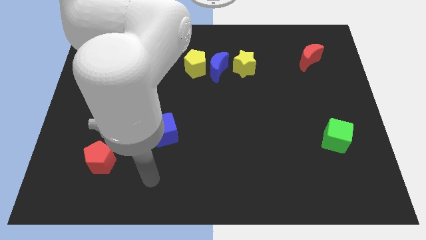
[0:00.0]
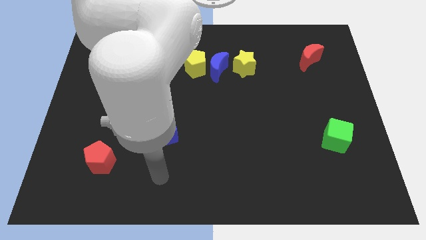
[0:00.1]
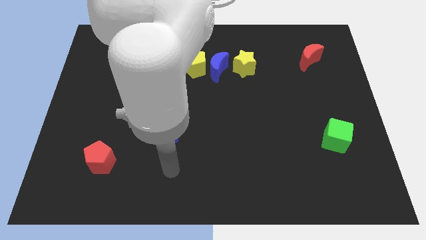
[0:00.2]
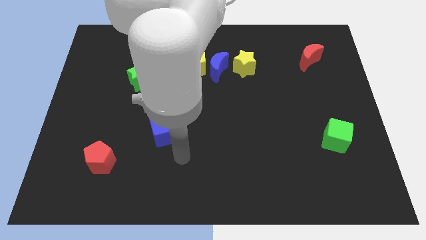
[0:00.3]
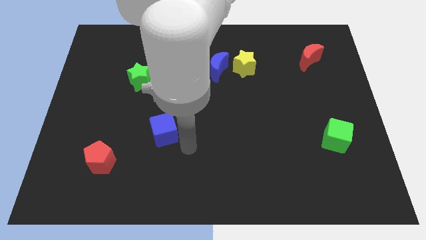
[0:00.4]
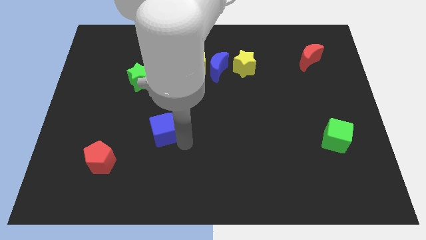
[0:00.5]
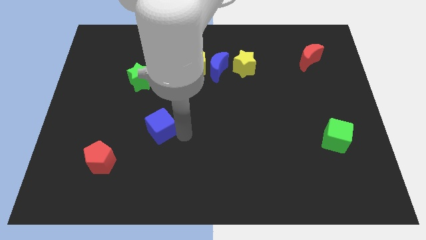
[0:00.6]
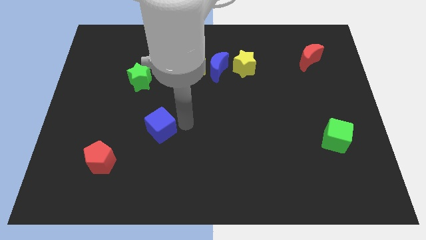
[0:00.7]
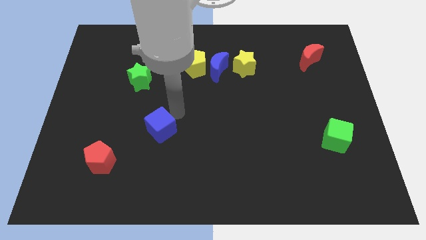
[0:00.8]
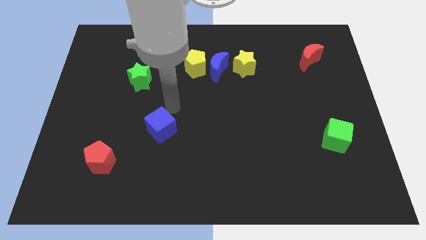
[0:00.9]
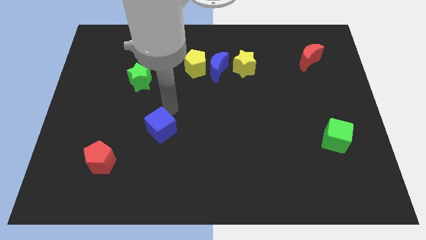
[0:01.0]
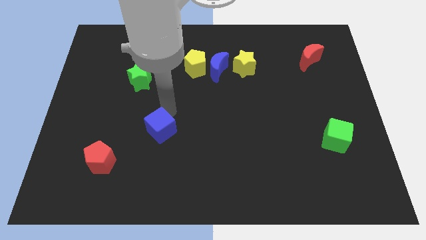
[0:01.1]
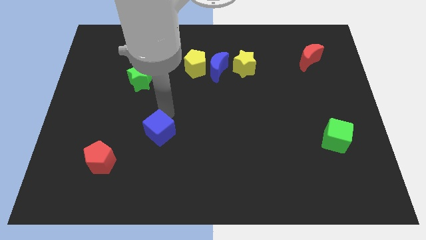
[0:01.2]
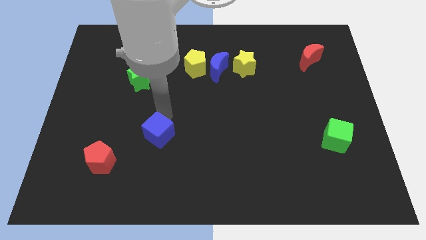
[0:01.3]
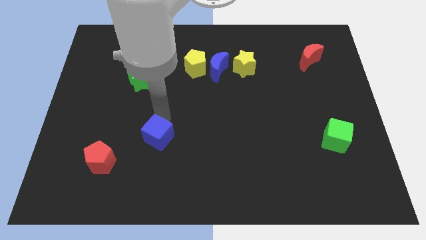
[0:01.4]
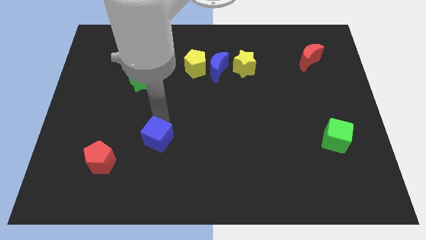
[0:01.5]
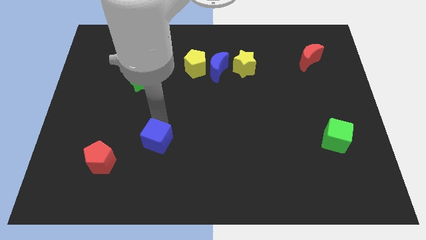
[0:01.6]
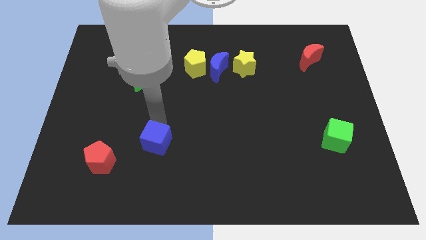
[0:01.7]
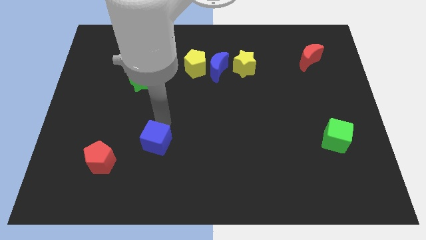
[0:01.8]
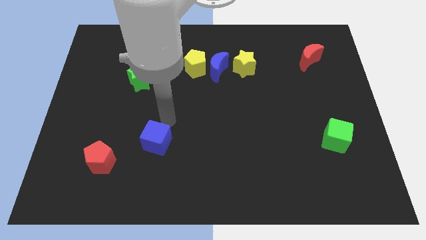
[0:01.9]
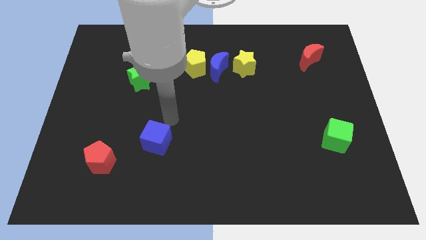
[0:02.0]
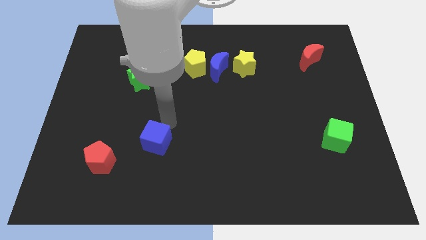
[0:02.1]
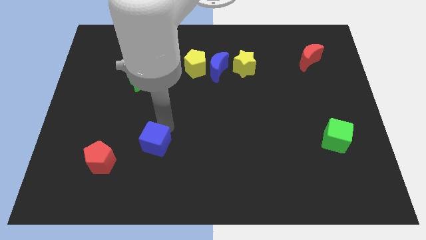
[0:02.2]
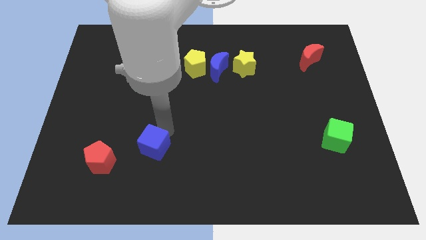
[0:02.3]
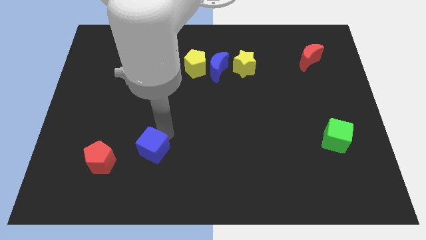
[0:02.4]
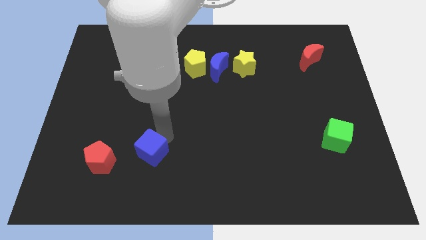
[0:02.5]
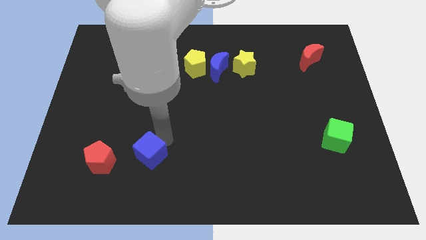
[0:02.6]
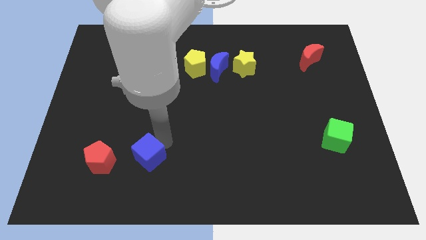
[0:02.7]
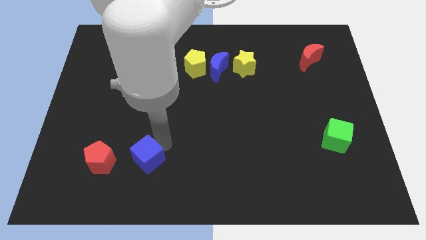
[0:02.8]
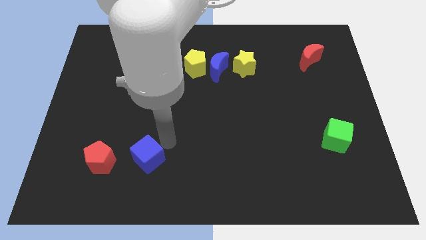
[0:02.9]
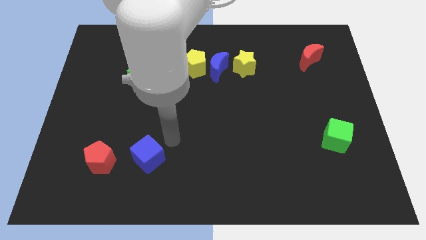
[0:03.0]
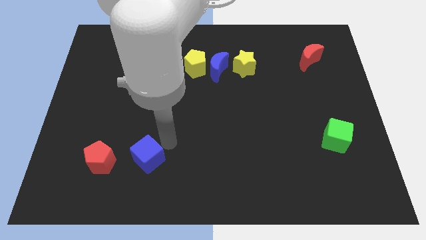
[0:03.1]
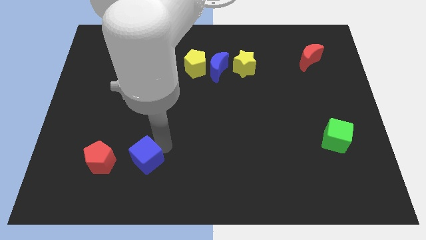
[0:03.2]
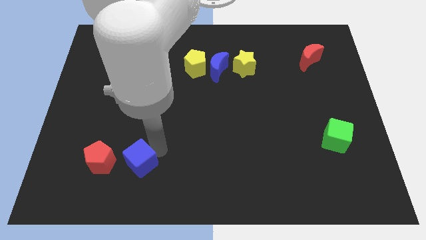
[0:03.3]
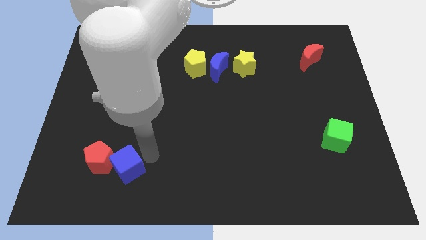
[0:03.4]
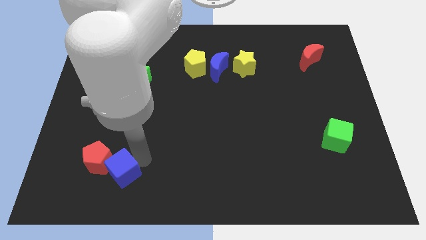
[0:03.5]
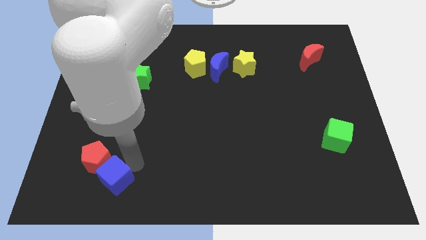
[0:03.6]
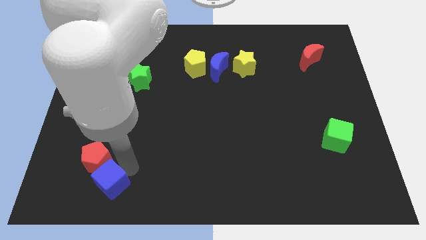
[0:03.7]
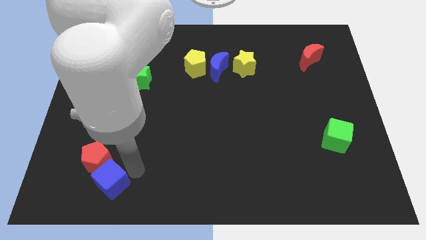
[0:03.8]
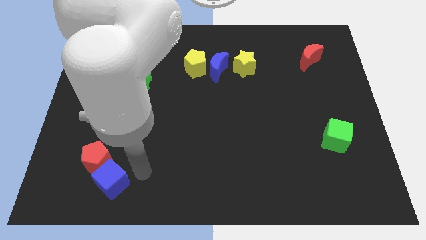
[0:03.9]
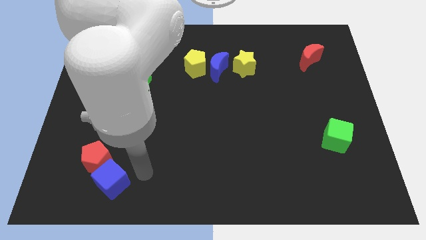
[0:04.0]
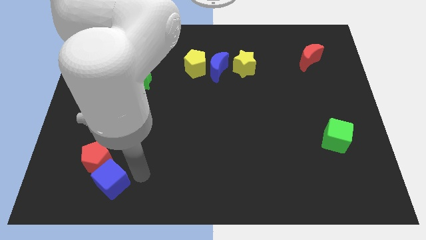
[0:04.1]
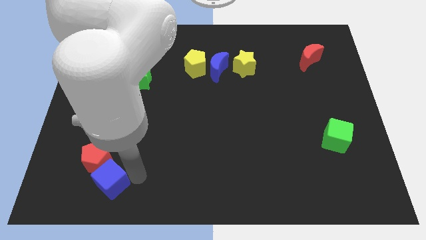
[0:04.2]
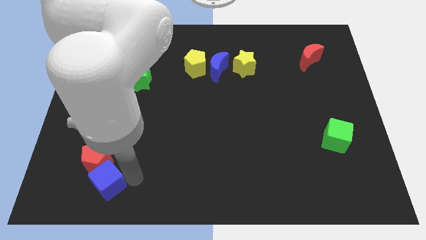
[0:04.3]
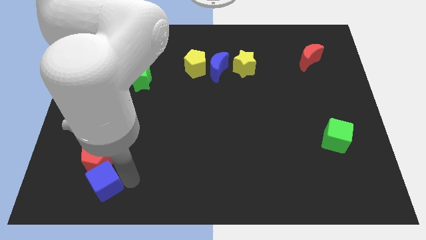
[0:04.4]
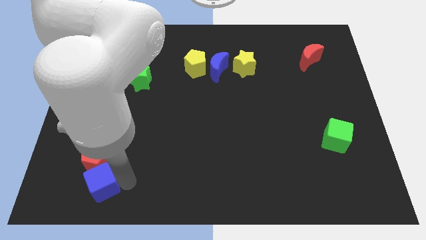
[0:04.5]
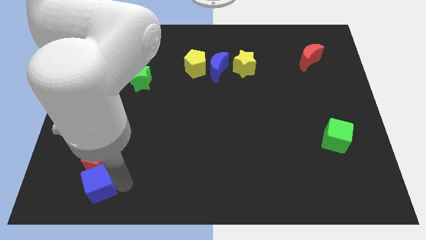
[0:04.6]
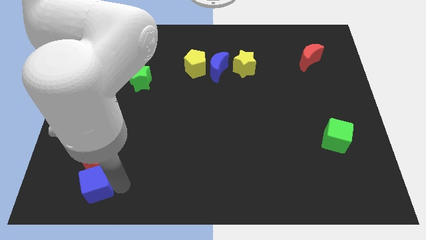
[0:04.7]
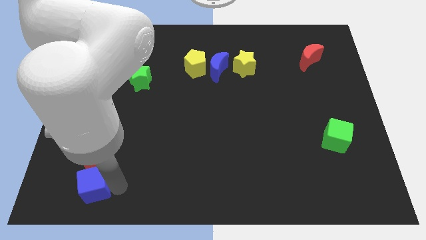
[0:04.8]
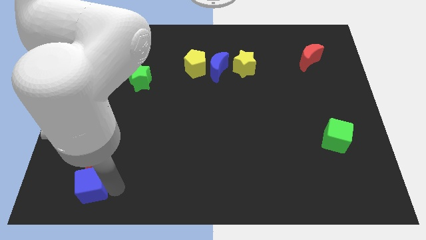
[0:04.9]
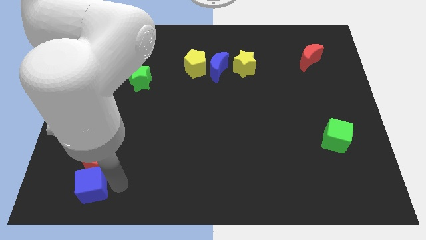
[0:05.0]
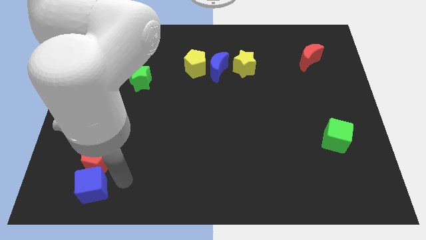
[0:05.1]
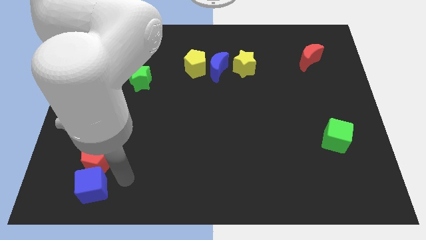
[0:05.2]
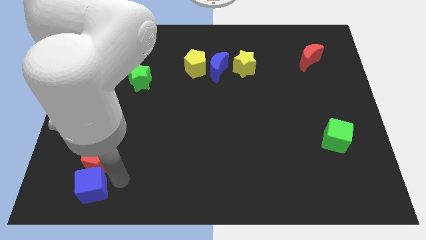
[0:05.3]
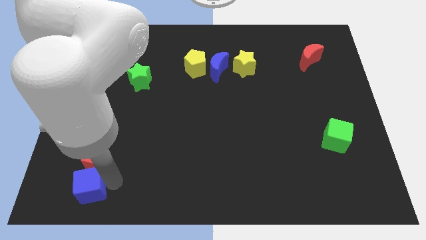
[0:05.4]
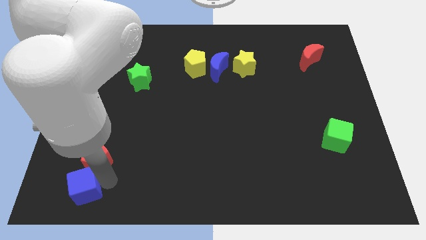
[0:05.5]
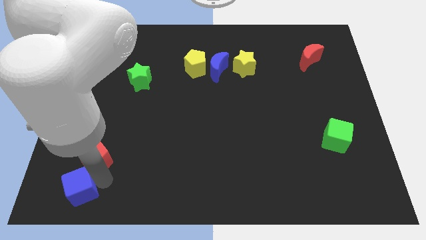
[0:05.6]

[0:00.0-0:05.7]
push the blue cube to the bottom left of the board
